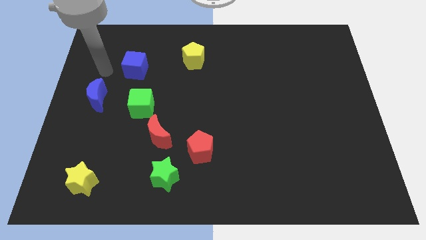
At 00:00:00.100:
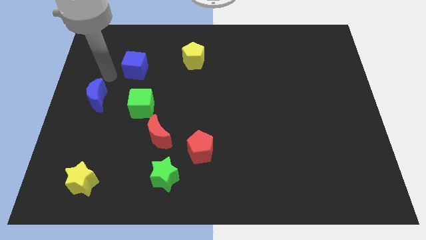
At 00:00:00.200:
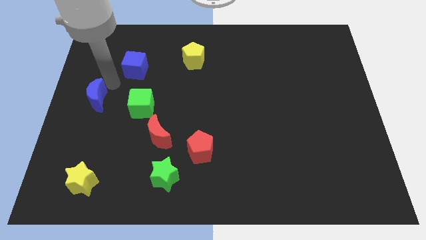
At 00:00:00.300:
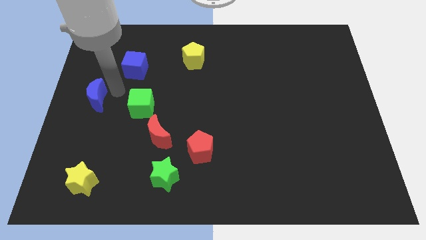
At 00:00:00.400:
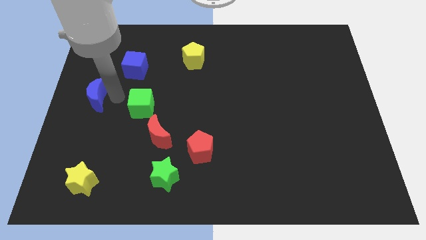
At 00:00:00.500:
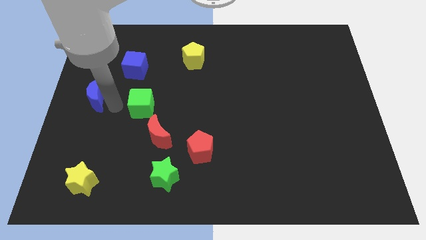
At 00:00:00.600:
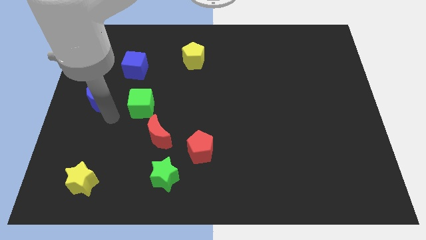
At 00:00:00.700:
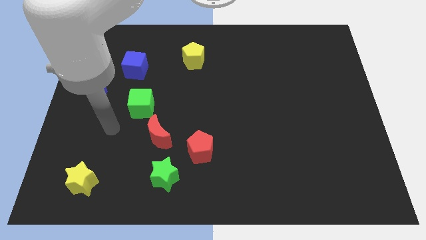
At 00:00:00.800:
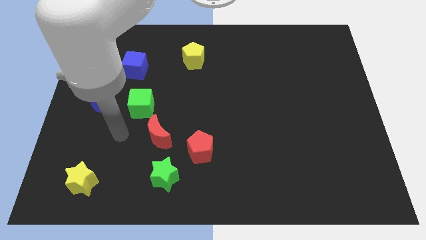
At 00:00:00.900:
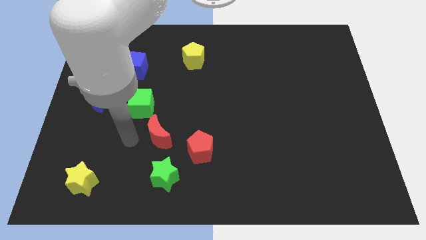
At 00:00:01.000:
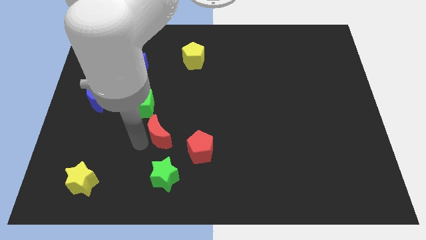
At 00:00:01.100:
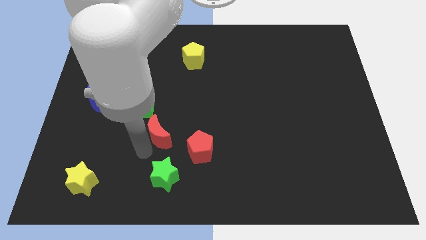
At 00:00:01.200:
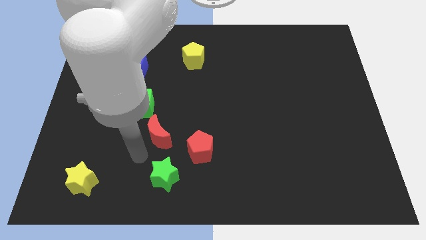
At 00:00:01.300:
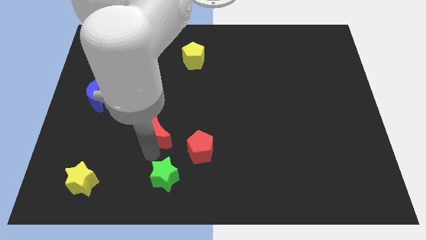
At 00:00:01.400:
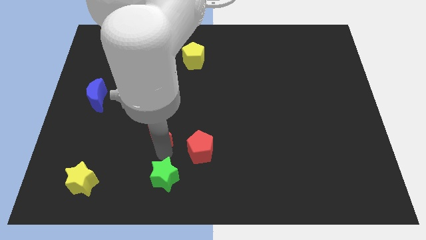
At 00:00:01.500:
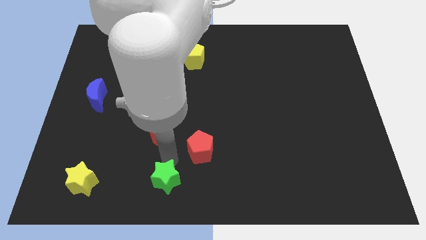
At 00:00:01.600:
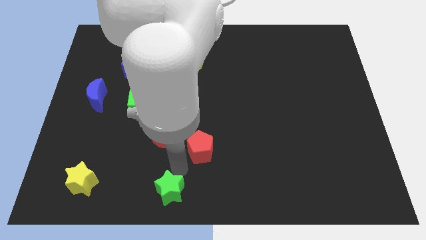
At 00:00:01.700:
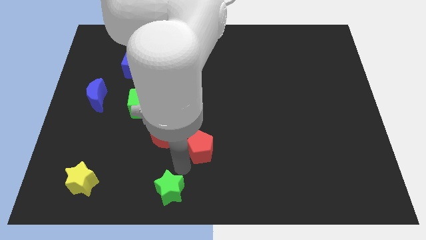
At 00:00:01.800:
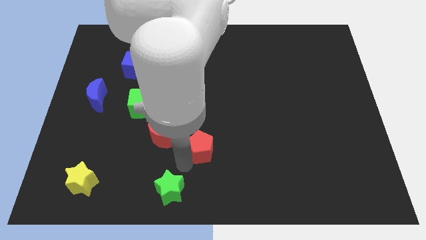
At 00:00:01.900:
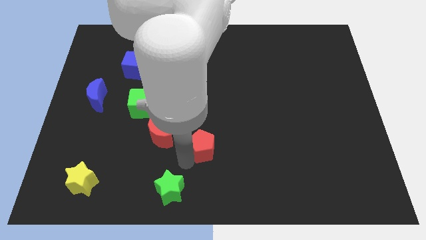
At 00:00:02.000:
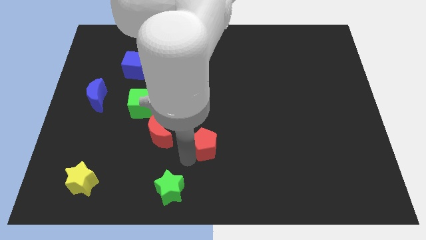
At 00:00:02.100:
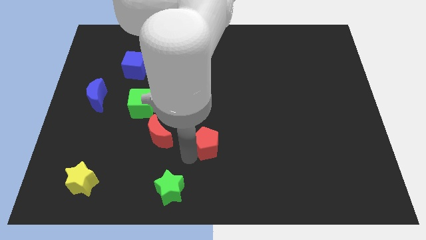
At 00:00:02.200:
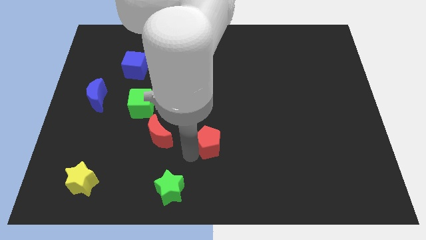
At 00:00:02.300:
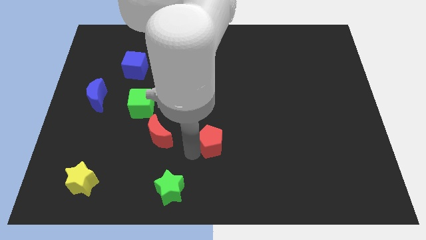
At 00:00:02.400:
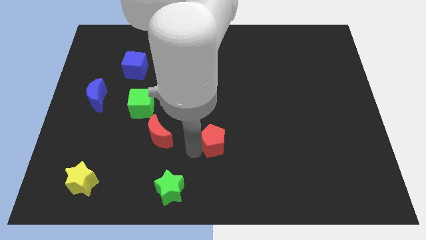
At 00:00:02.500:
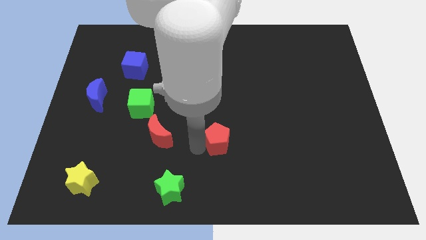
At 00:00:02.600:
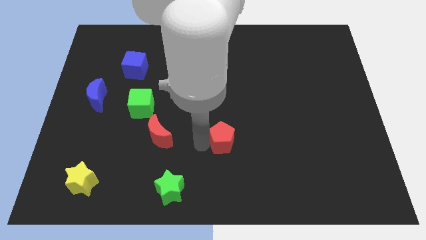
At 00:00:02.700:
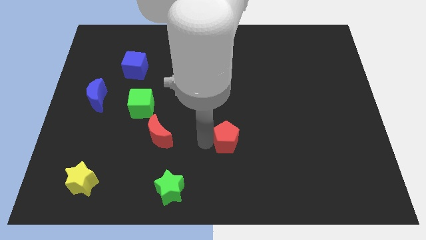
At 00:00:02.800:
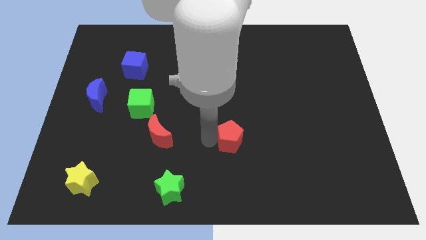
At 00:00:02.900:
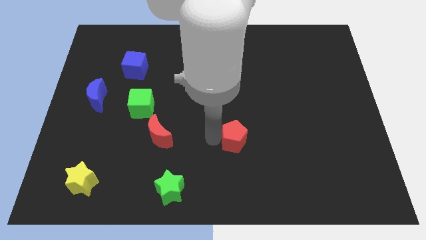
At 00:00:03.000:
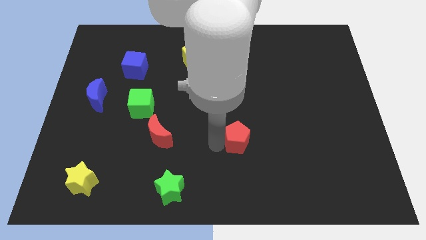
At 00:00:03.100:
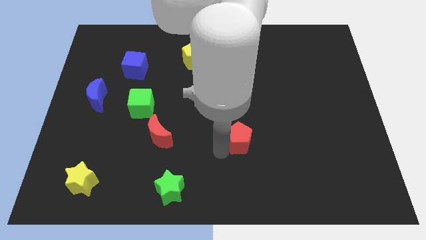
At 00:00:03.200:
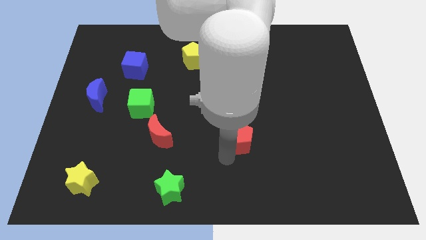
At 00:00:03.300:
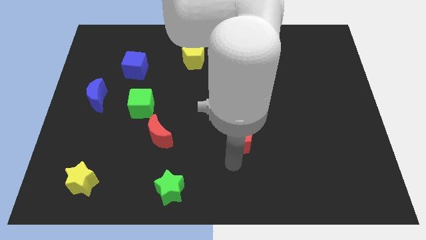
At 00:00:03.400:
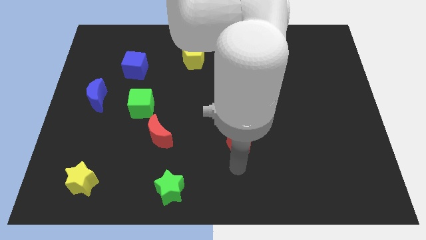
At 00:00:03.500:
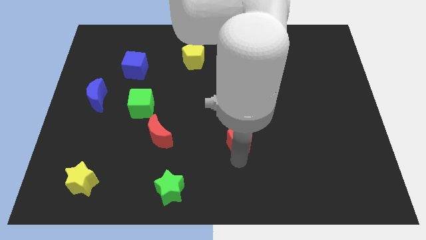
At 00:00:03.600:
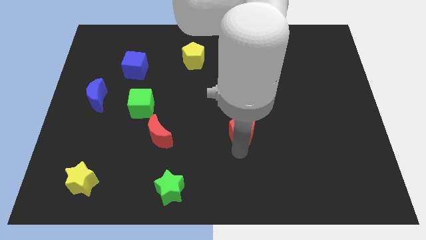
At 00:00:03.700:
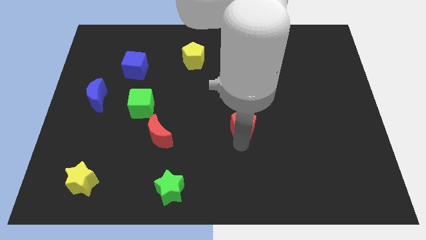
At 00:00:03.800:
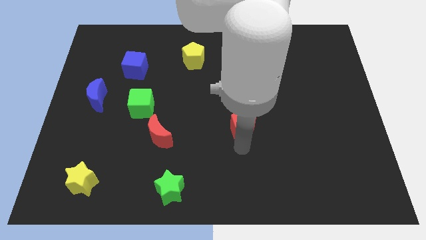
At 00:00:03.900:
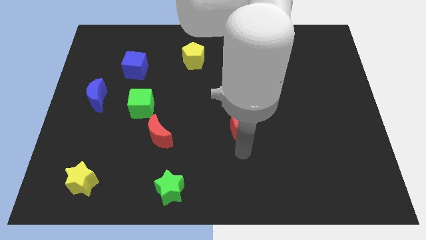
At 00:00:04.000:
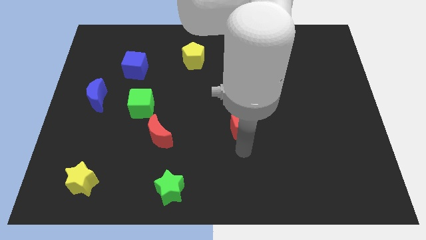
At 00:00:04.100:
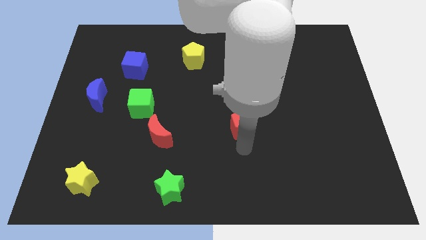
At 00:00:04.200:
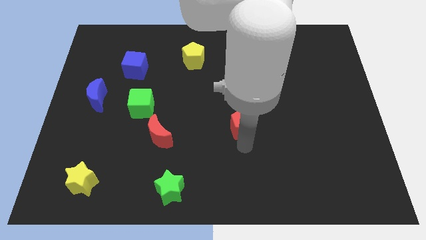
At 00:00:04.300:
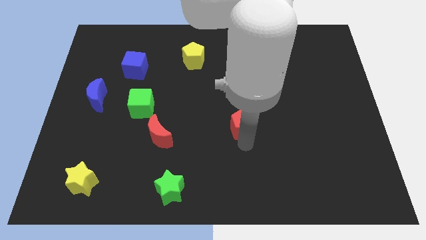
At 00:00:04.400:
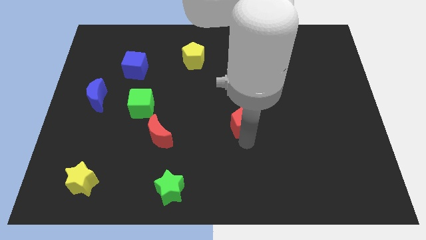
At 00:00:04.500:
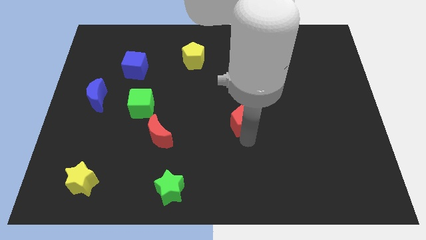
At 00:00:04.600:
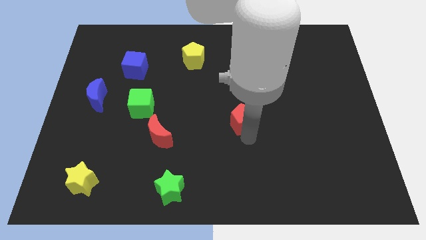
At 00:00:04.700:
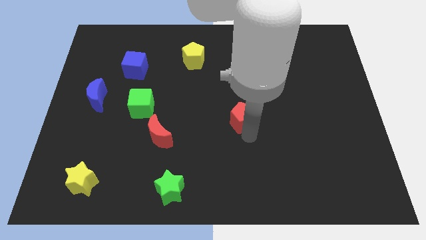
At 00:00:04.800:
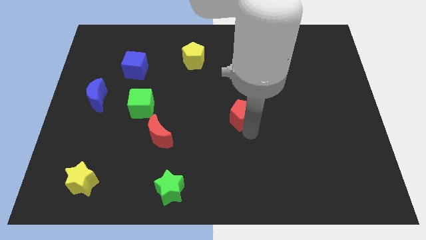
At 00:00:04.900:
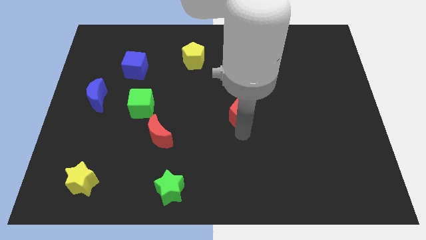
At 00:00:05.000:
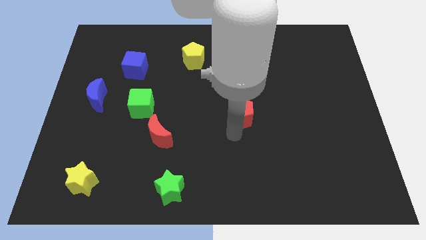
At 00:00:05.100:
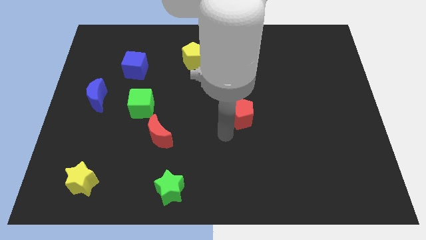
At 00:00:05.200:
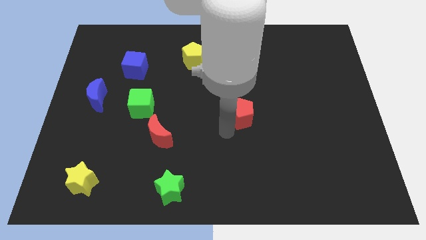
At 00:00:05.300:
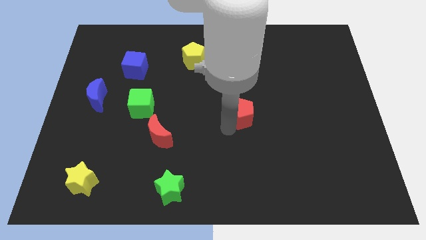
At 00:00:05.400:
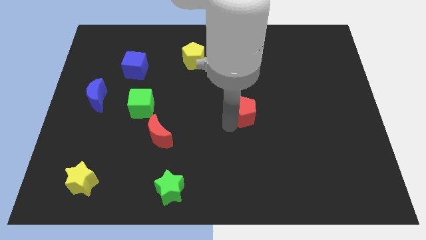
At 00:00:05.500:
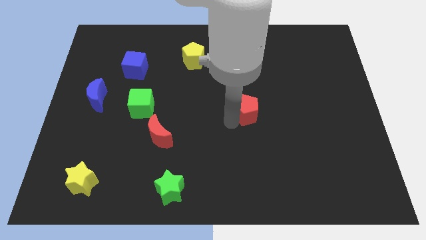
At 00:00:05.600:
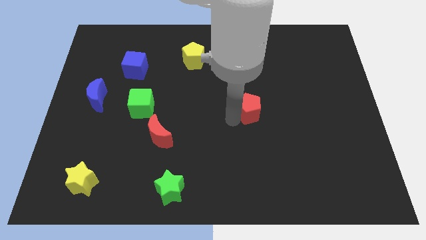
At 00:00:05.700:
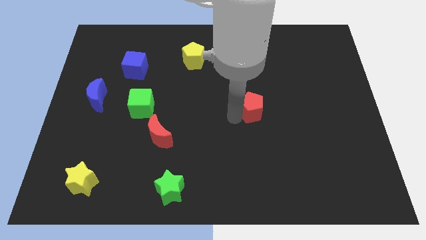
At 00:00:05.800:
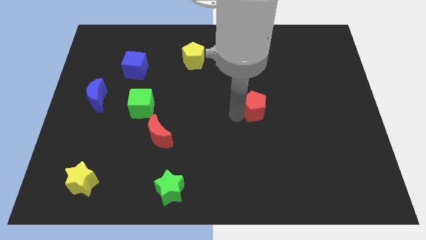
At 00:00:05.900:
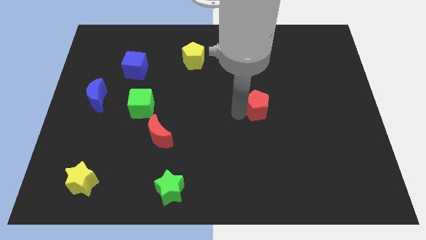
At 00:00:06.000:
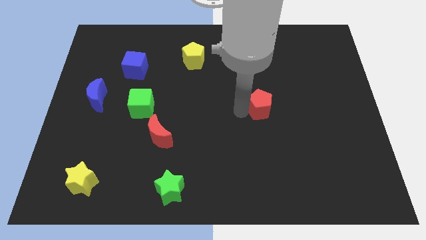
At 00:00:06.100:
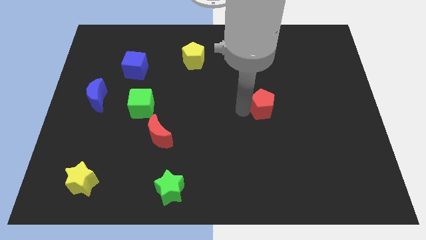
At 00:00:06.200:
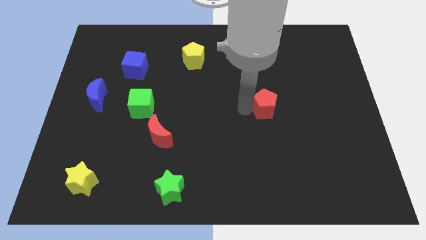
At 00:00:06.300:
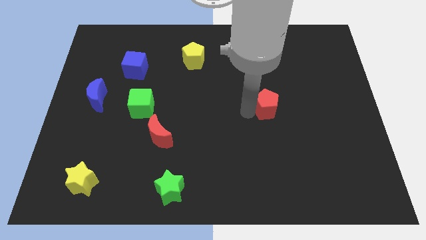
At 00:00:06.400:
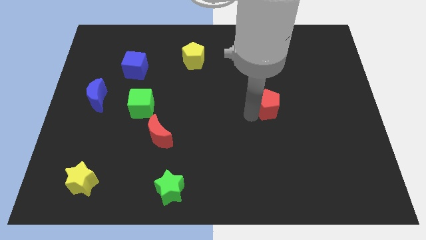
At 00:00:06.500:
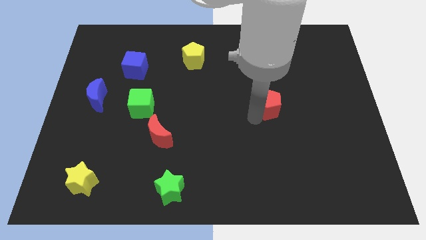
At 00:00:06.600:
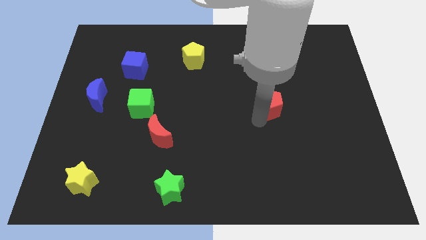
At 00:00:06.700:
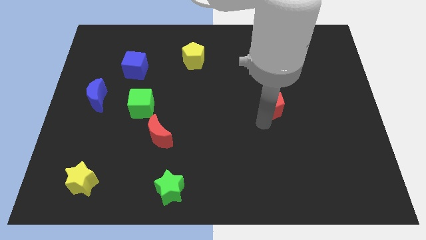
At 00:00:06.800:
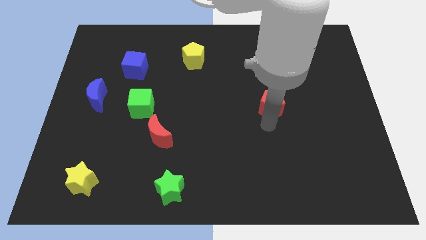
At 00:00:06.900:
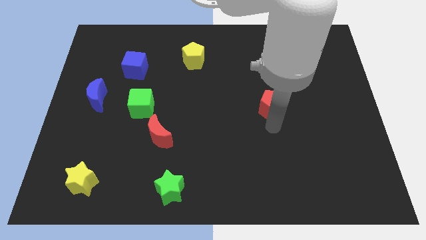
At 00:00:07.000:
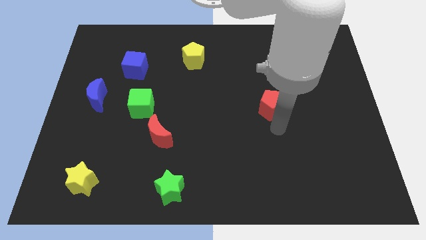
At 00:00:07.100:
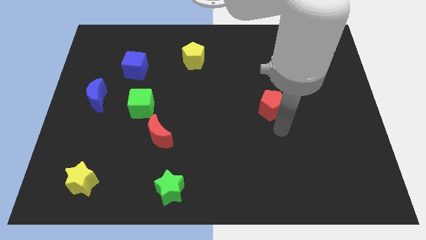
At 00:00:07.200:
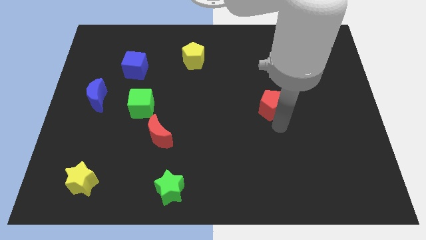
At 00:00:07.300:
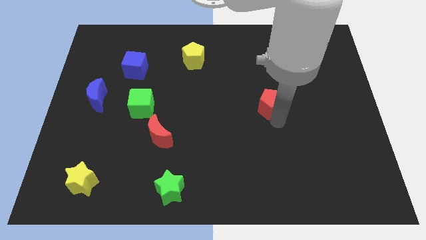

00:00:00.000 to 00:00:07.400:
push the red pentagon up and right

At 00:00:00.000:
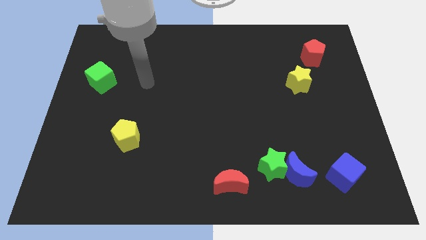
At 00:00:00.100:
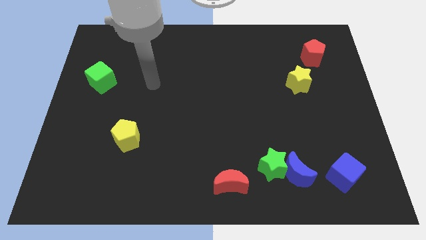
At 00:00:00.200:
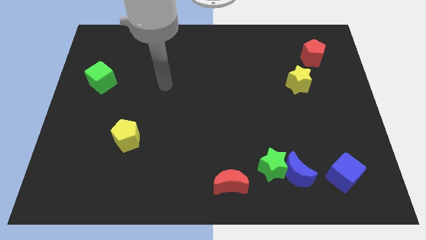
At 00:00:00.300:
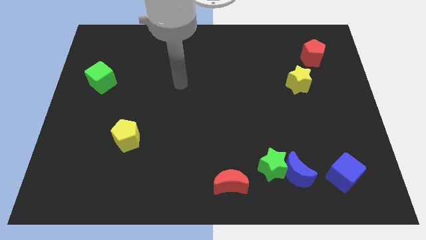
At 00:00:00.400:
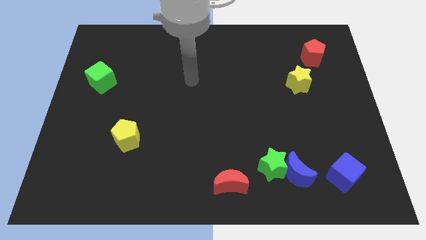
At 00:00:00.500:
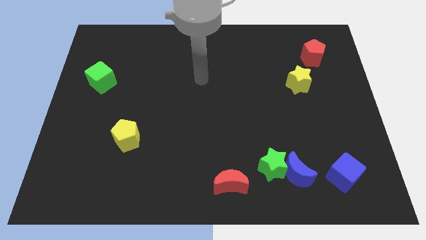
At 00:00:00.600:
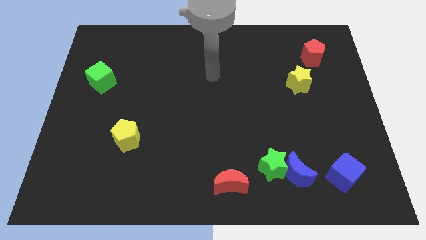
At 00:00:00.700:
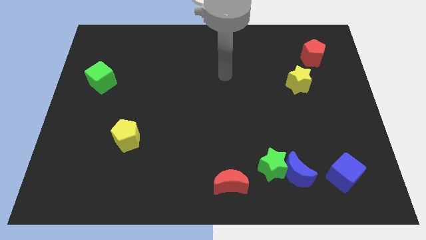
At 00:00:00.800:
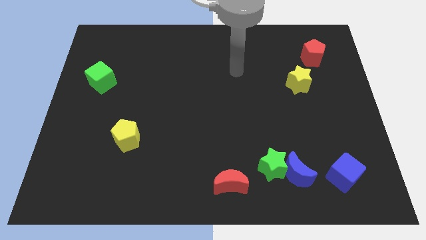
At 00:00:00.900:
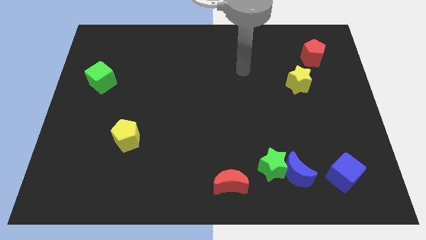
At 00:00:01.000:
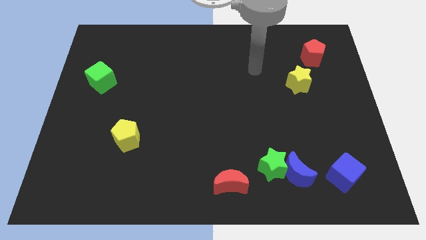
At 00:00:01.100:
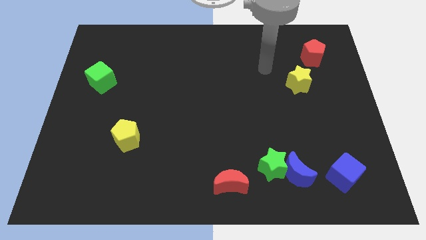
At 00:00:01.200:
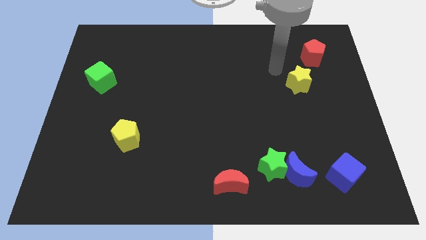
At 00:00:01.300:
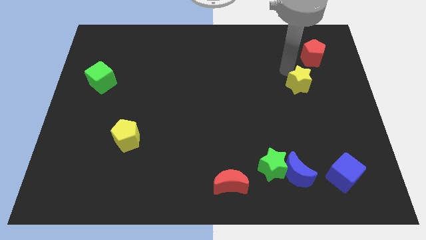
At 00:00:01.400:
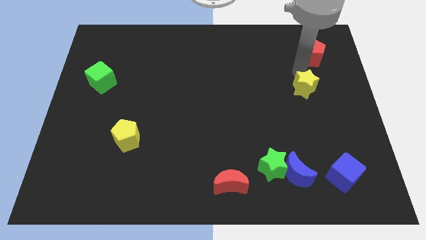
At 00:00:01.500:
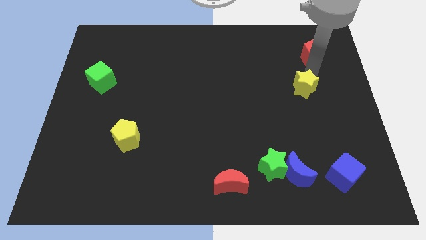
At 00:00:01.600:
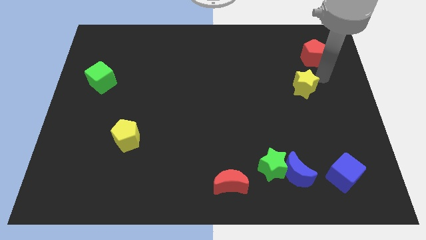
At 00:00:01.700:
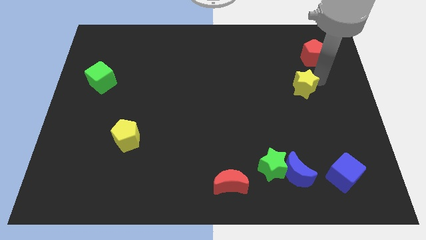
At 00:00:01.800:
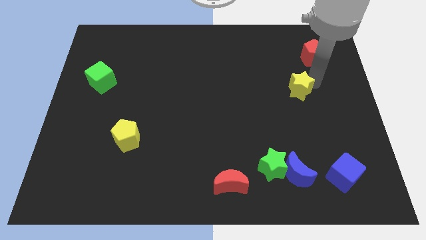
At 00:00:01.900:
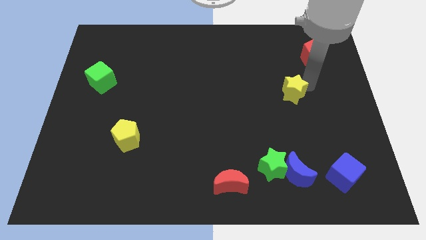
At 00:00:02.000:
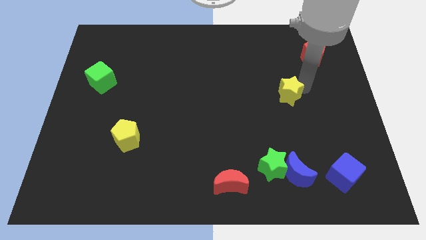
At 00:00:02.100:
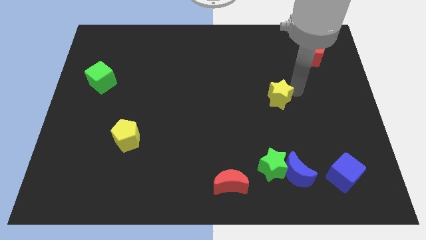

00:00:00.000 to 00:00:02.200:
slightly move the yellow star down and to the left
